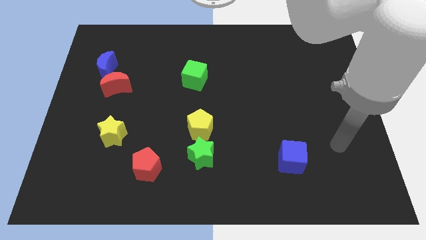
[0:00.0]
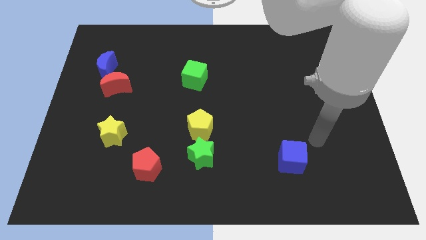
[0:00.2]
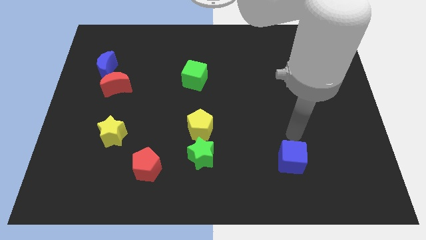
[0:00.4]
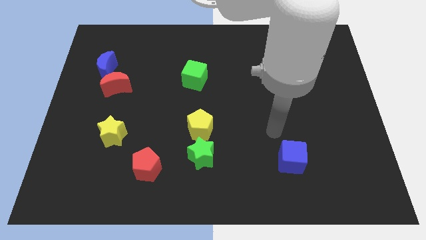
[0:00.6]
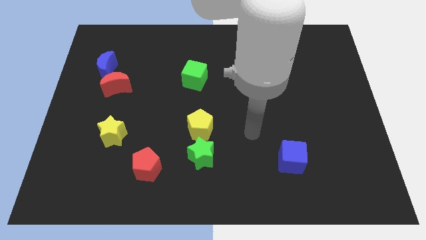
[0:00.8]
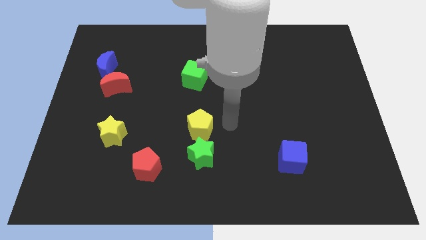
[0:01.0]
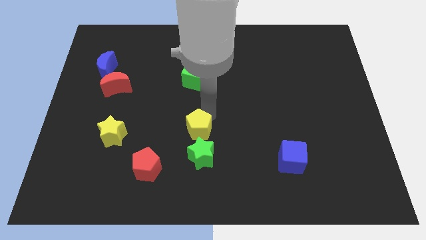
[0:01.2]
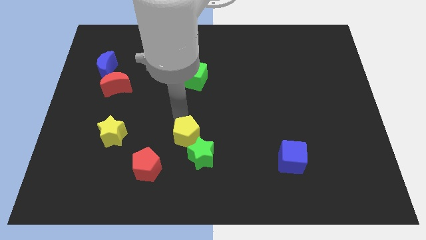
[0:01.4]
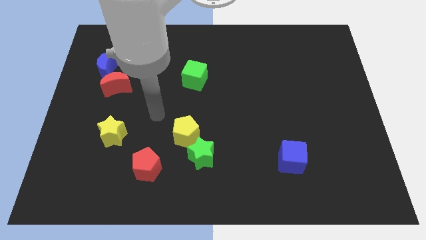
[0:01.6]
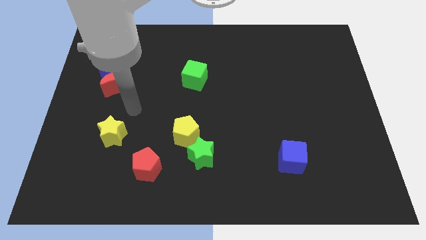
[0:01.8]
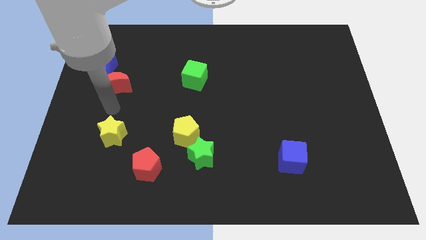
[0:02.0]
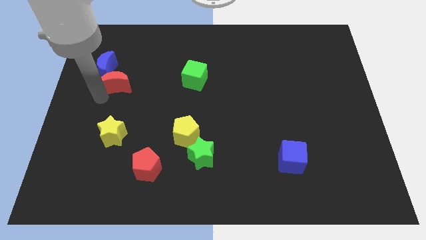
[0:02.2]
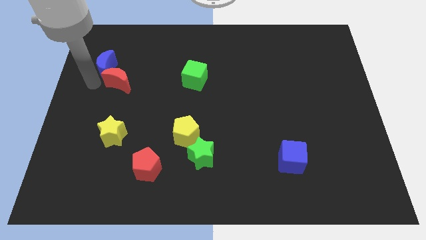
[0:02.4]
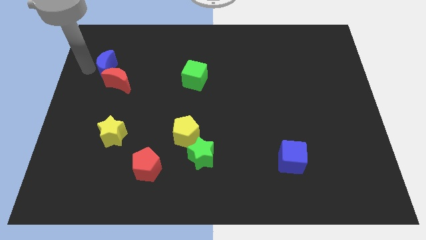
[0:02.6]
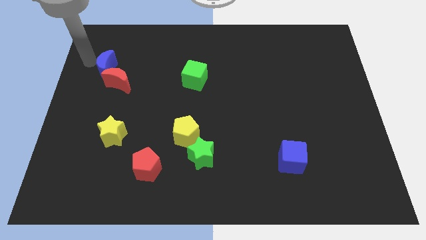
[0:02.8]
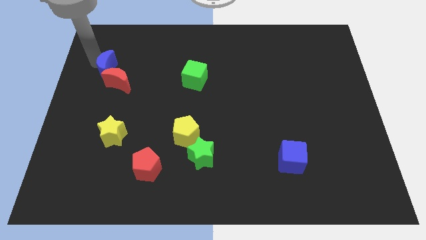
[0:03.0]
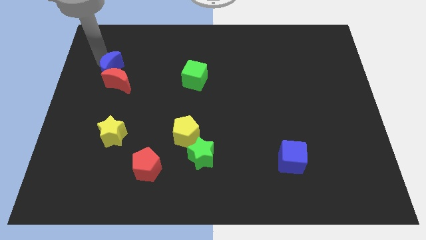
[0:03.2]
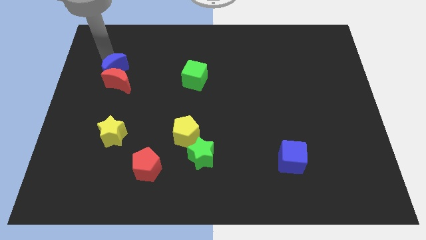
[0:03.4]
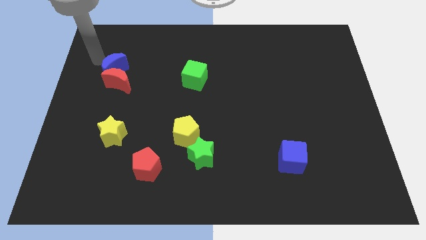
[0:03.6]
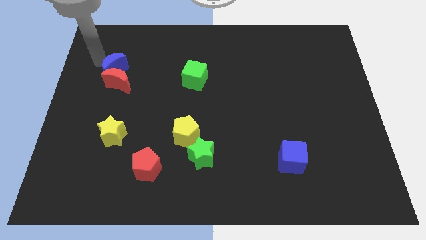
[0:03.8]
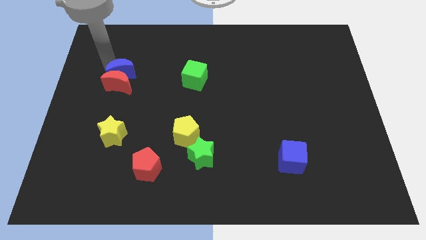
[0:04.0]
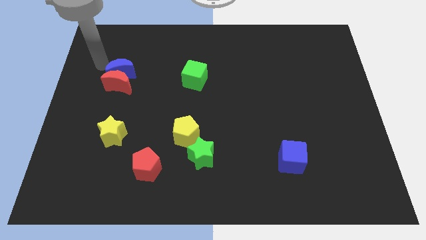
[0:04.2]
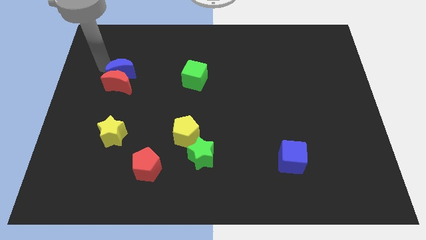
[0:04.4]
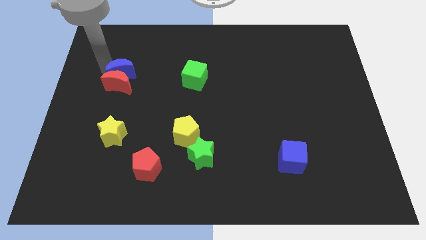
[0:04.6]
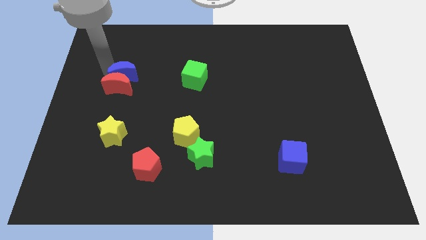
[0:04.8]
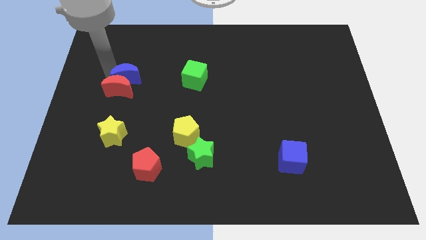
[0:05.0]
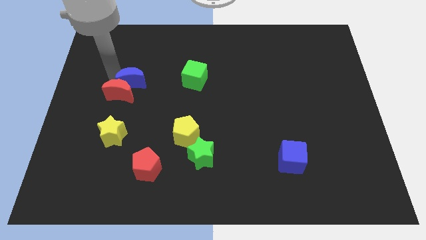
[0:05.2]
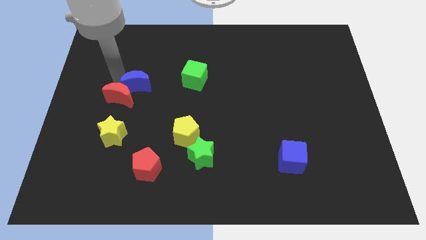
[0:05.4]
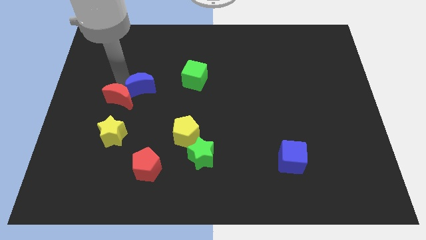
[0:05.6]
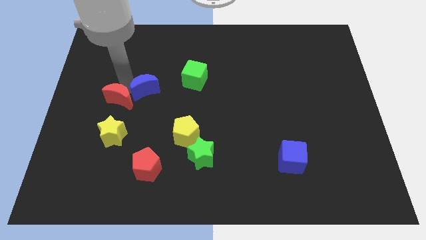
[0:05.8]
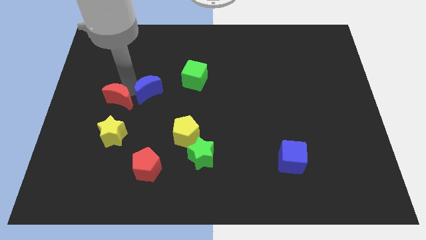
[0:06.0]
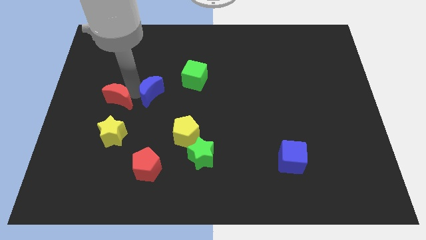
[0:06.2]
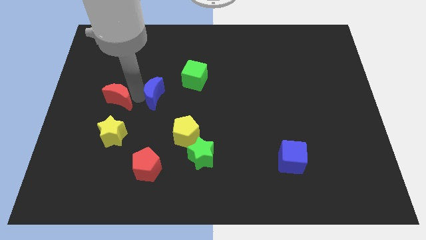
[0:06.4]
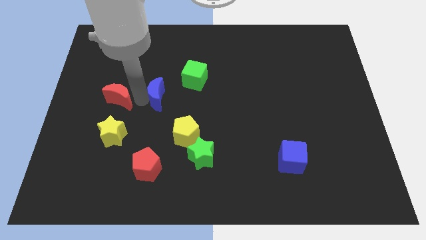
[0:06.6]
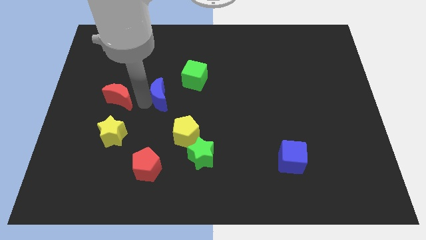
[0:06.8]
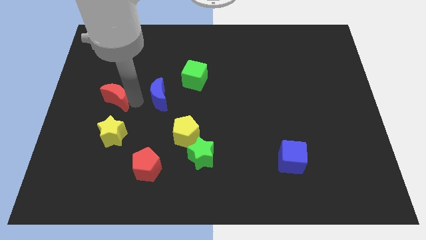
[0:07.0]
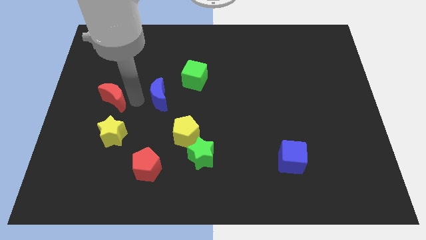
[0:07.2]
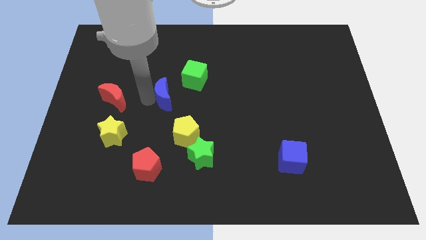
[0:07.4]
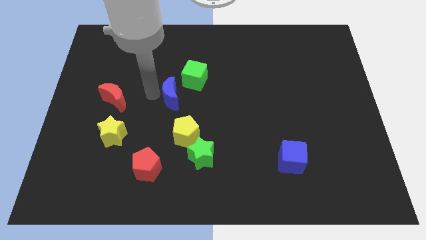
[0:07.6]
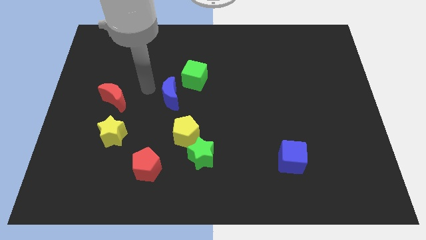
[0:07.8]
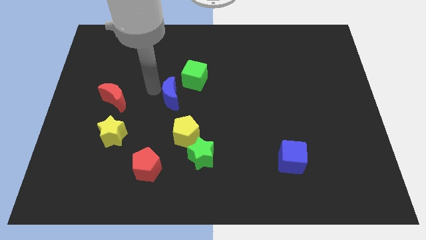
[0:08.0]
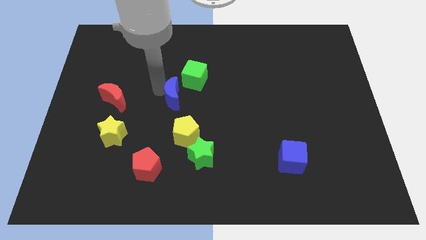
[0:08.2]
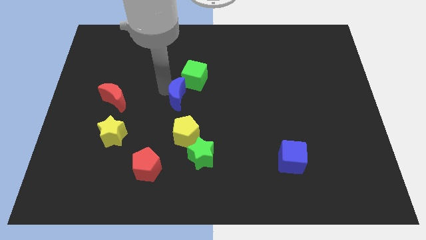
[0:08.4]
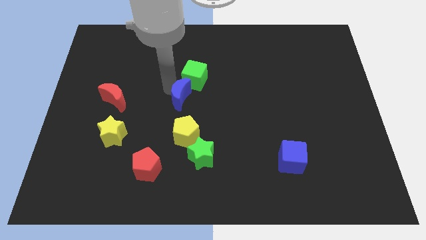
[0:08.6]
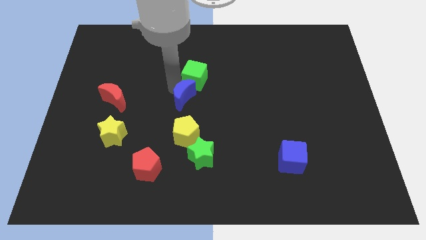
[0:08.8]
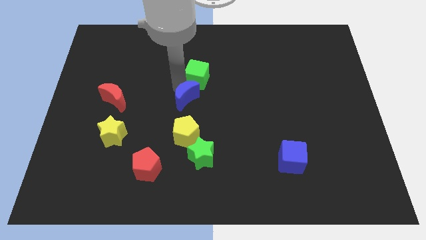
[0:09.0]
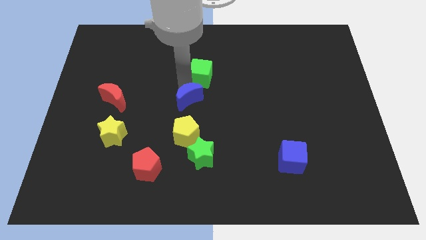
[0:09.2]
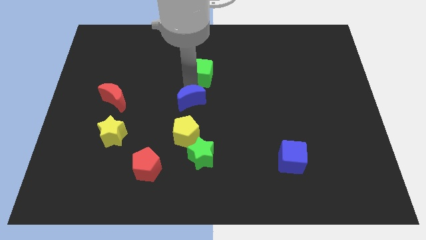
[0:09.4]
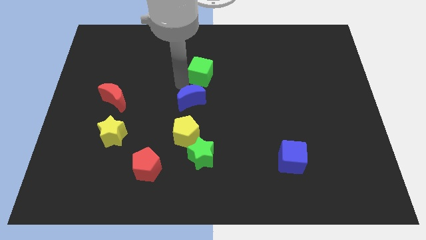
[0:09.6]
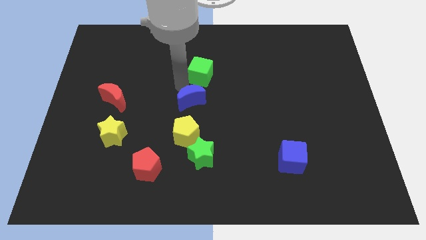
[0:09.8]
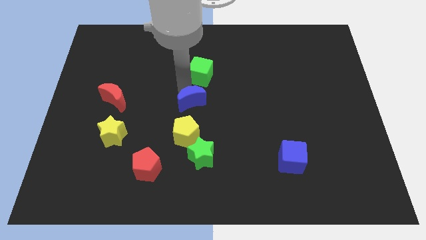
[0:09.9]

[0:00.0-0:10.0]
slide the blue moon above the green star

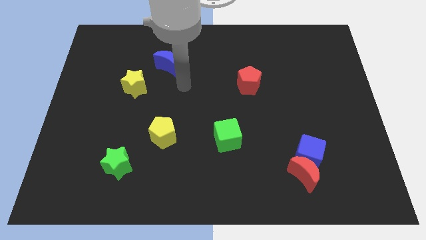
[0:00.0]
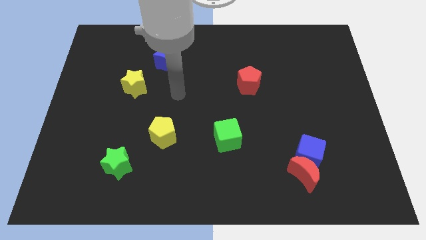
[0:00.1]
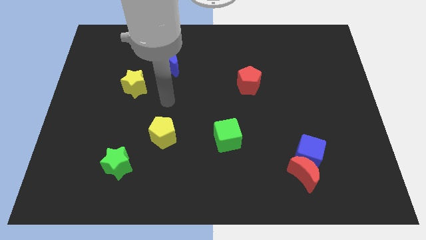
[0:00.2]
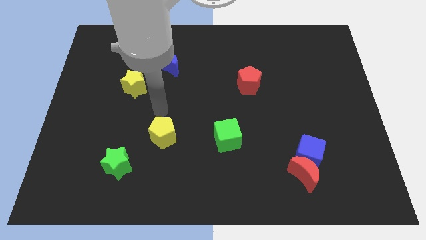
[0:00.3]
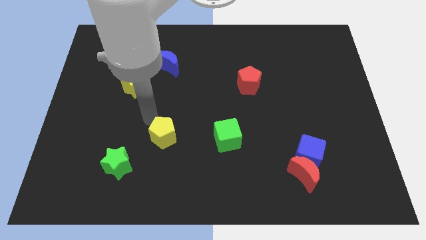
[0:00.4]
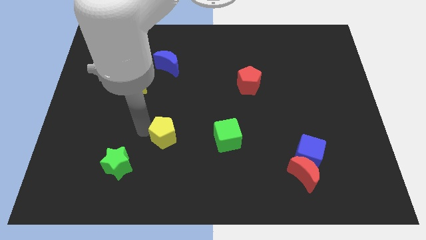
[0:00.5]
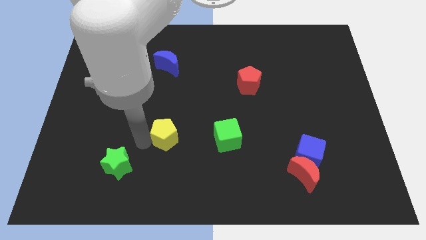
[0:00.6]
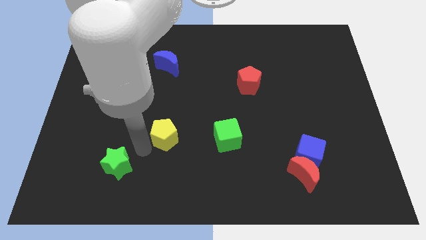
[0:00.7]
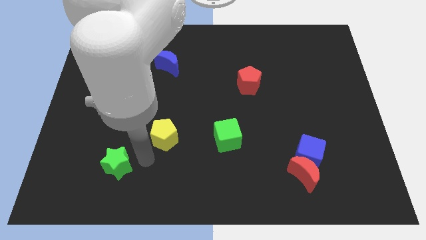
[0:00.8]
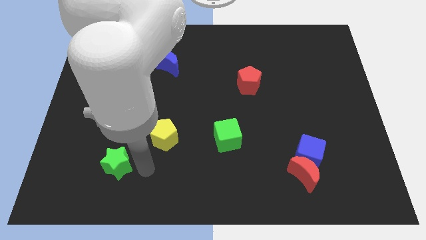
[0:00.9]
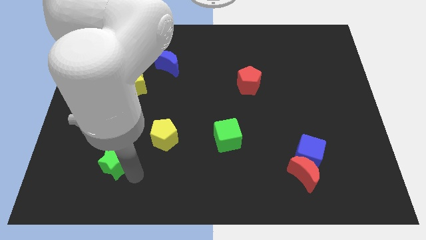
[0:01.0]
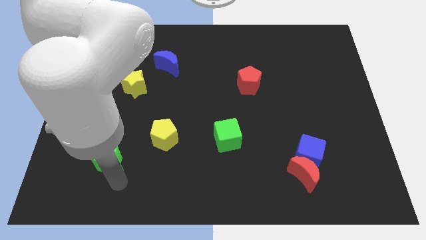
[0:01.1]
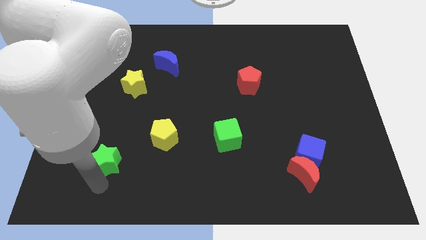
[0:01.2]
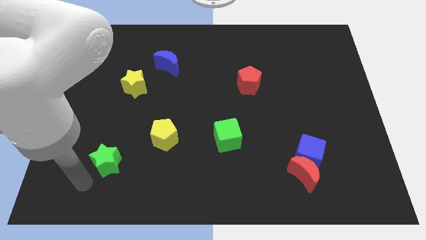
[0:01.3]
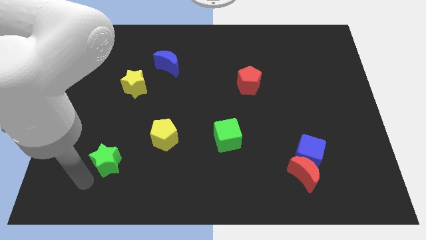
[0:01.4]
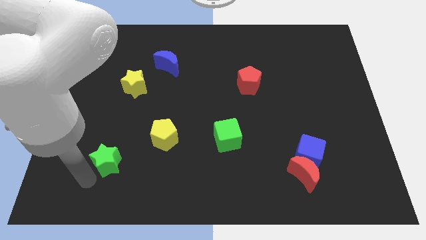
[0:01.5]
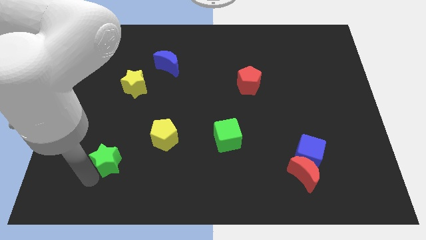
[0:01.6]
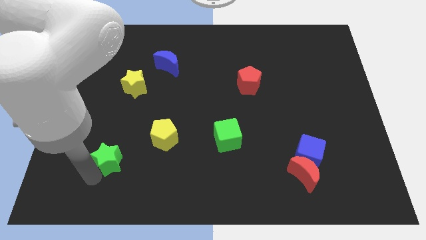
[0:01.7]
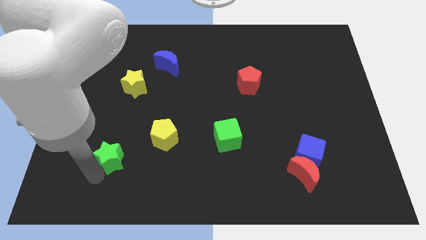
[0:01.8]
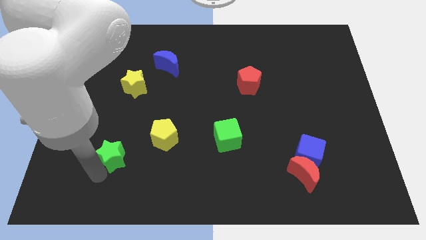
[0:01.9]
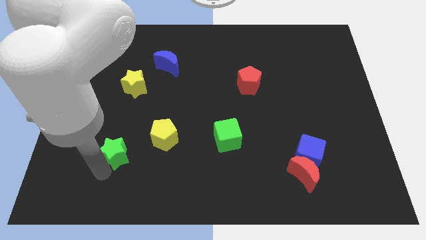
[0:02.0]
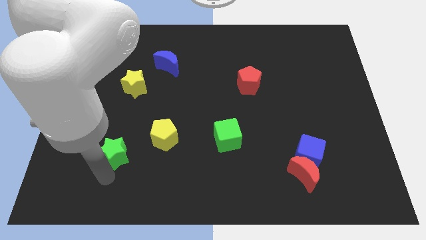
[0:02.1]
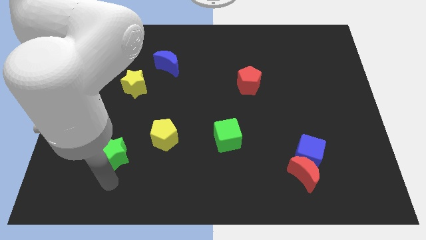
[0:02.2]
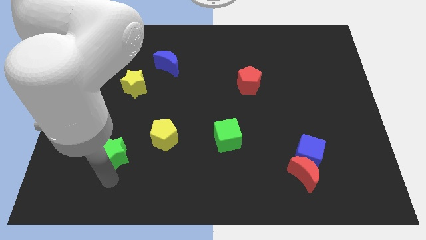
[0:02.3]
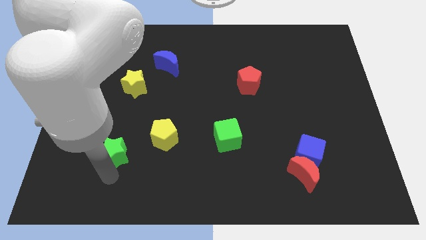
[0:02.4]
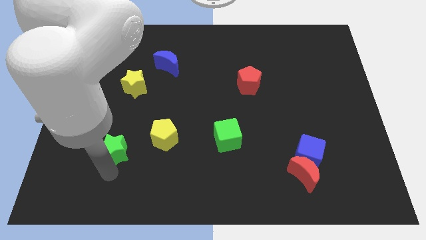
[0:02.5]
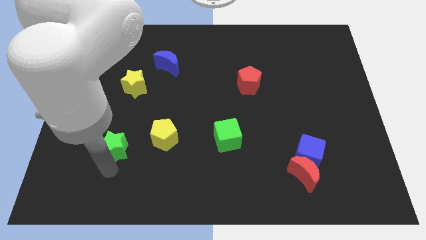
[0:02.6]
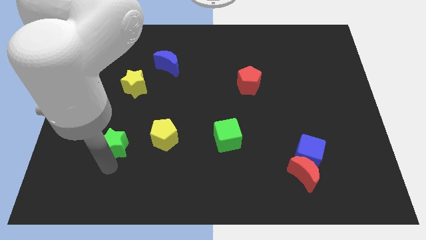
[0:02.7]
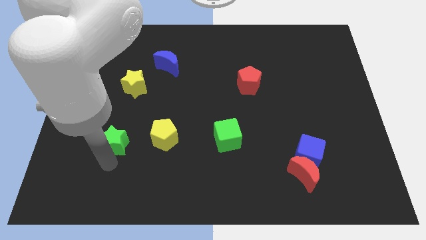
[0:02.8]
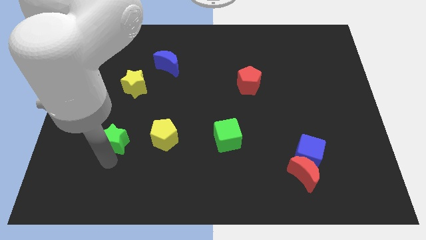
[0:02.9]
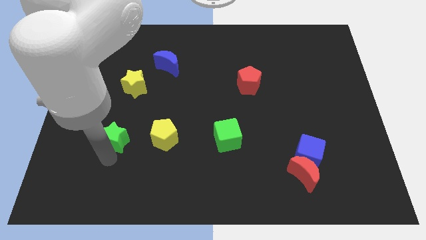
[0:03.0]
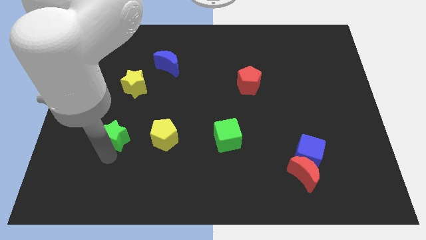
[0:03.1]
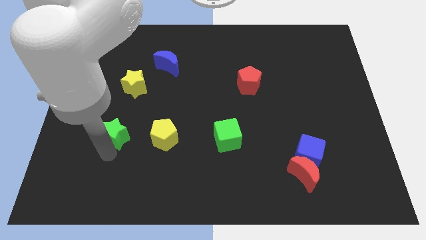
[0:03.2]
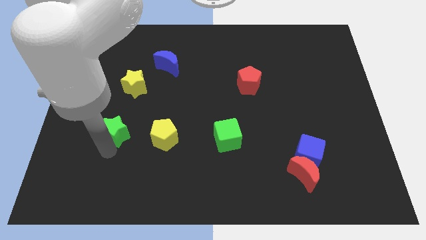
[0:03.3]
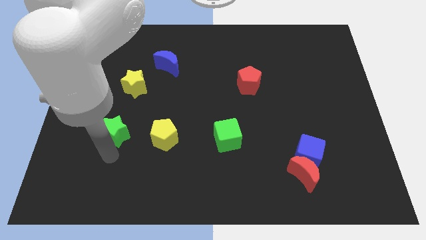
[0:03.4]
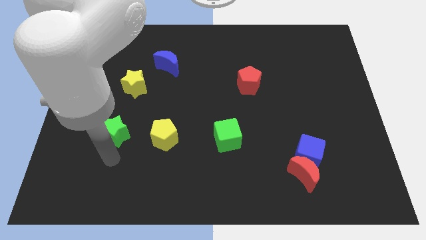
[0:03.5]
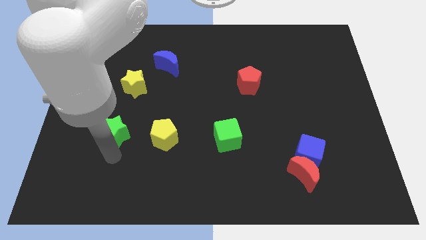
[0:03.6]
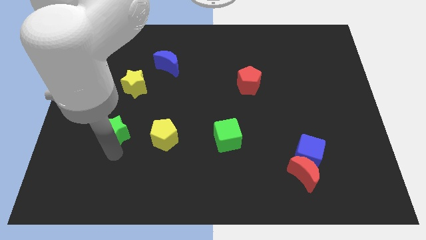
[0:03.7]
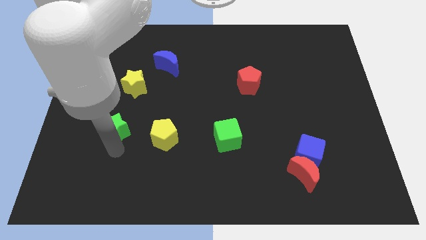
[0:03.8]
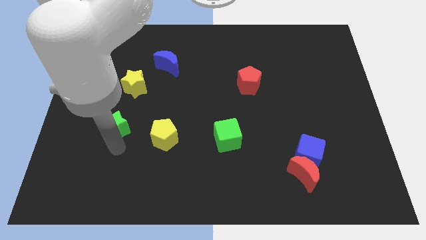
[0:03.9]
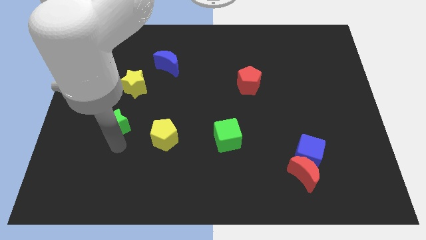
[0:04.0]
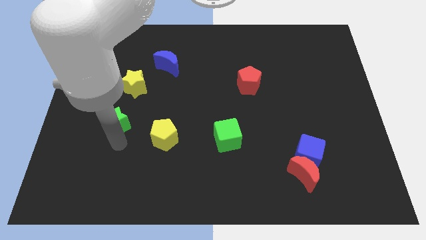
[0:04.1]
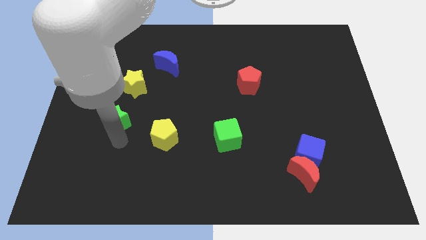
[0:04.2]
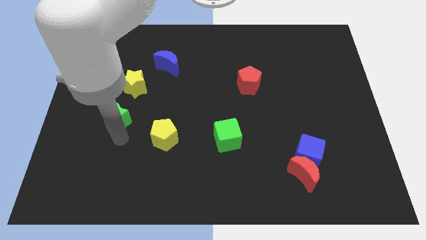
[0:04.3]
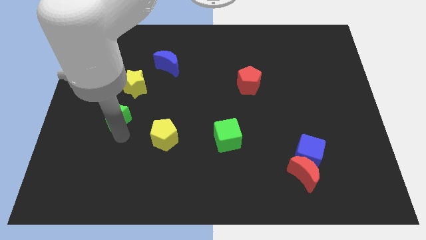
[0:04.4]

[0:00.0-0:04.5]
slide the green star to the bottom left of the yellow star
